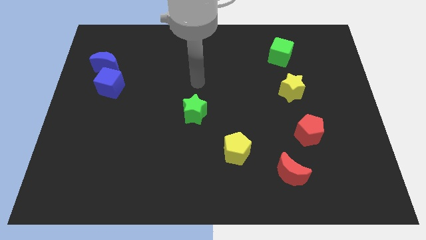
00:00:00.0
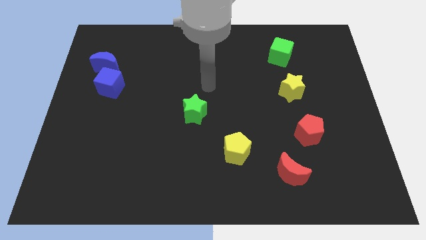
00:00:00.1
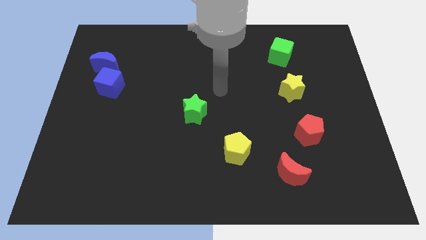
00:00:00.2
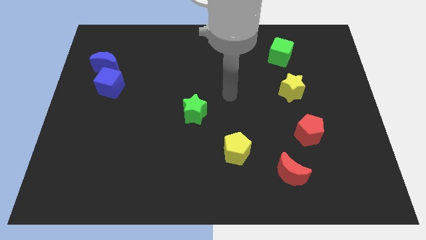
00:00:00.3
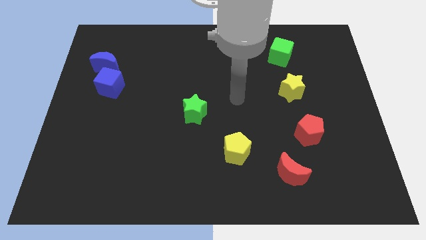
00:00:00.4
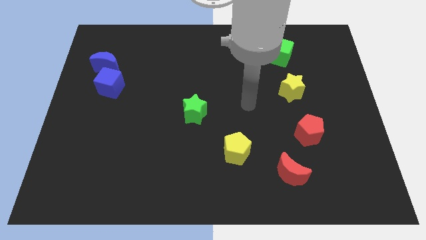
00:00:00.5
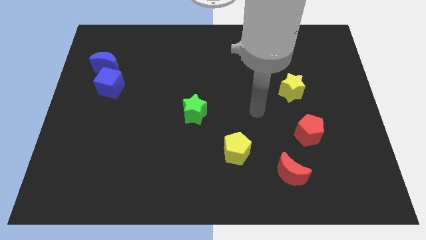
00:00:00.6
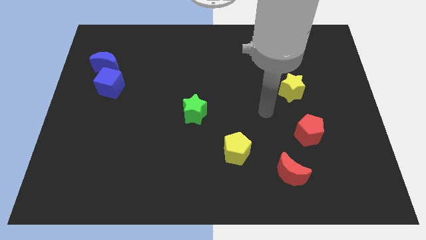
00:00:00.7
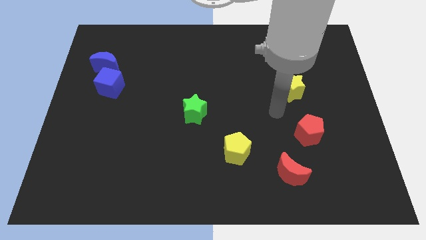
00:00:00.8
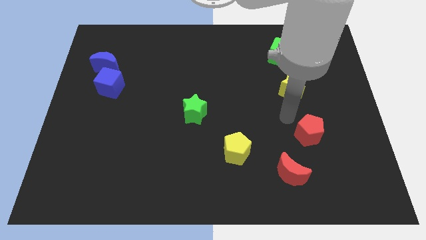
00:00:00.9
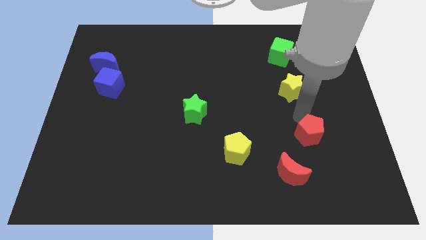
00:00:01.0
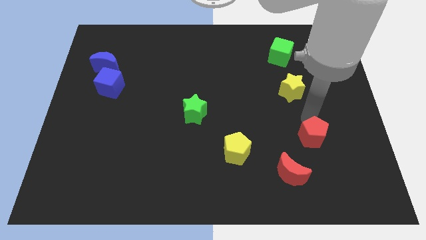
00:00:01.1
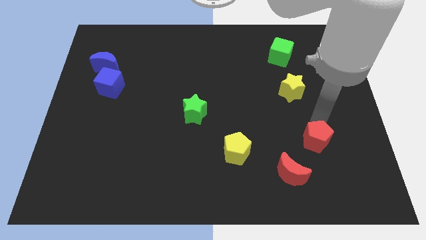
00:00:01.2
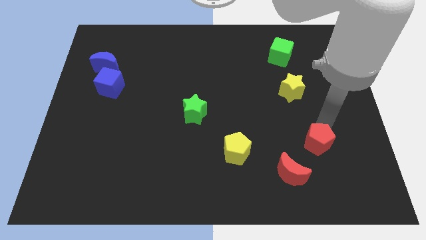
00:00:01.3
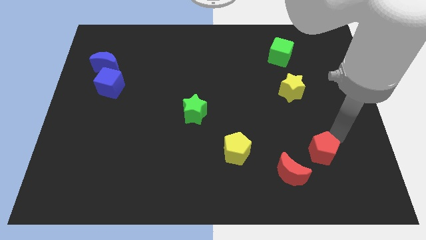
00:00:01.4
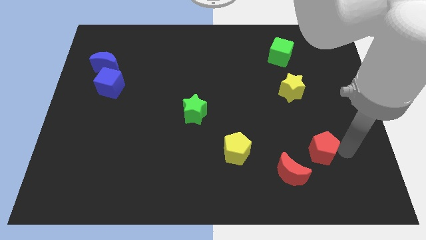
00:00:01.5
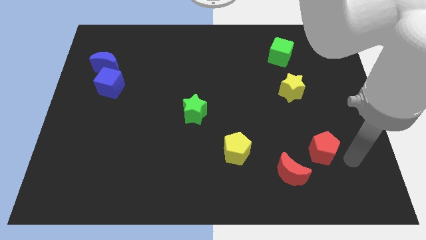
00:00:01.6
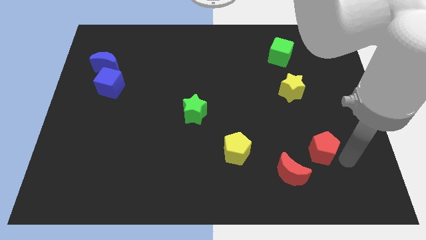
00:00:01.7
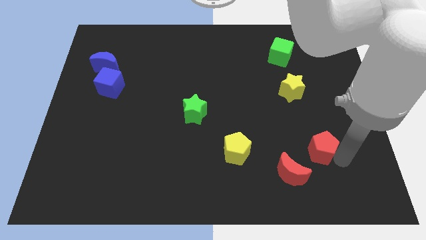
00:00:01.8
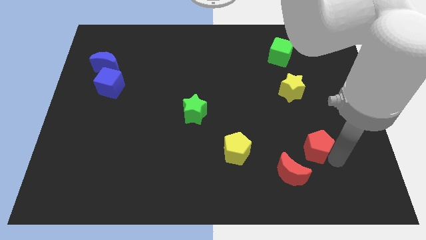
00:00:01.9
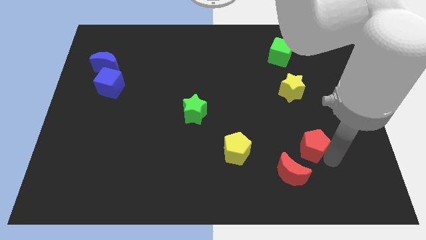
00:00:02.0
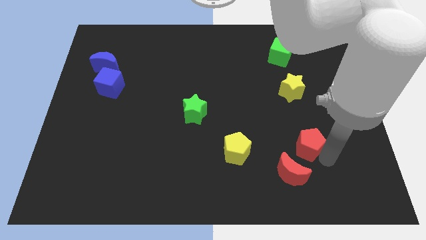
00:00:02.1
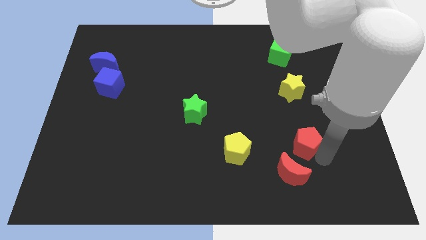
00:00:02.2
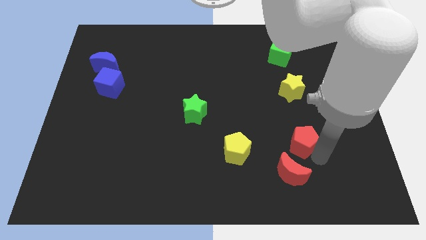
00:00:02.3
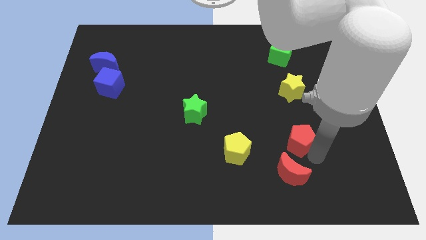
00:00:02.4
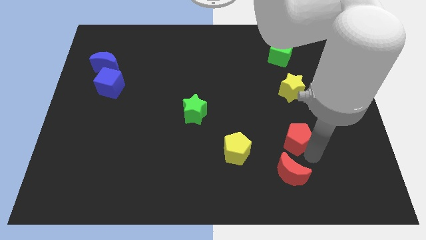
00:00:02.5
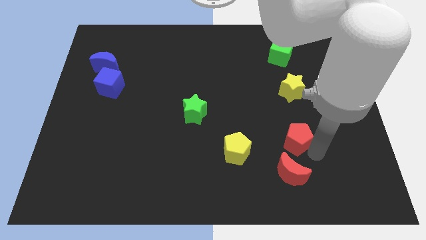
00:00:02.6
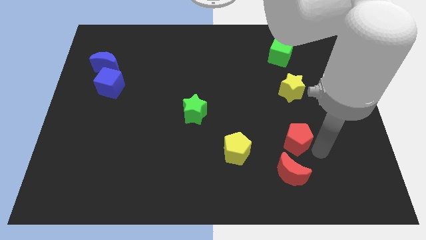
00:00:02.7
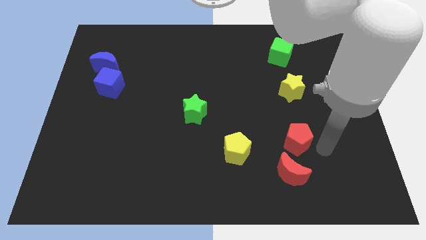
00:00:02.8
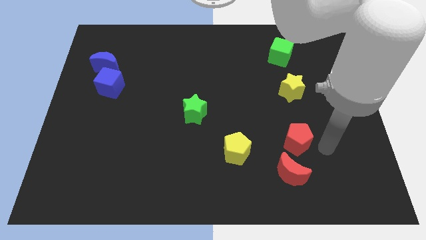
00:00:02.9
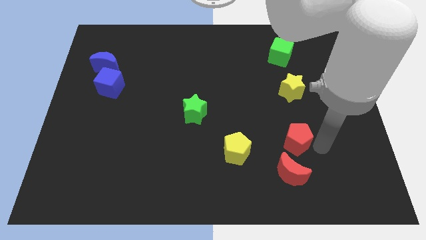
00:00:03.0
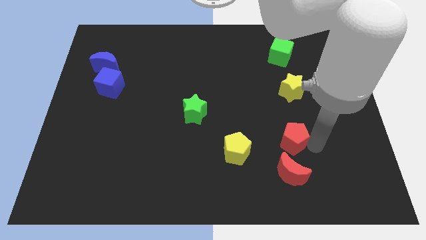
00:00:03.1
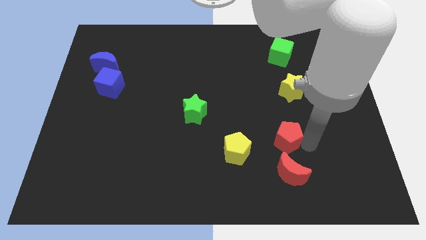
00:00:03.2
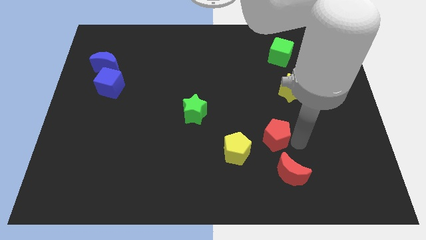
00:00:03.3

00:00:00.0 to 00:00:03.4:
slightly push the red pentagon left

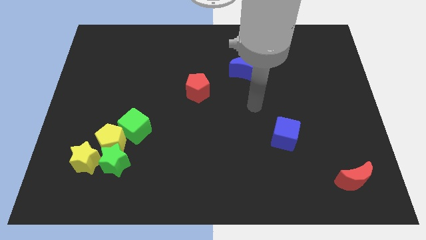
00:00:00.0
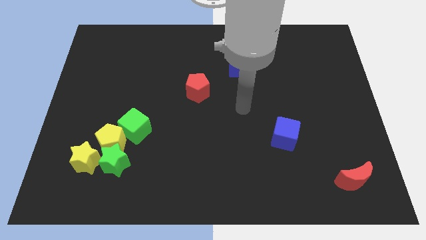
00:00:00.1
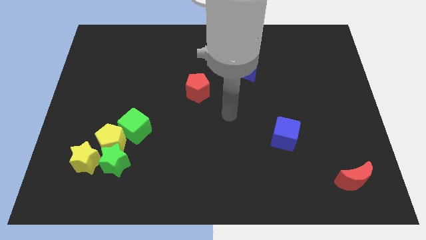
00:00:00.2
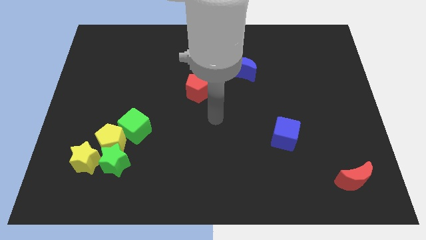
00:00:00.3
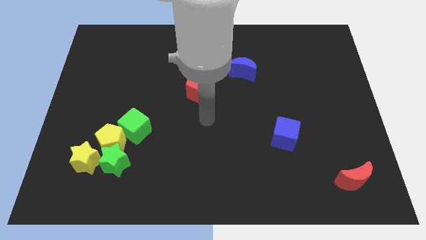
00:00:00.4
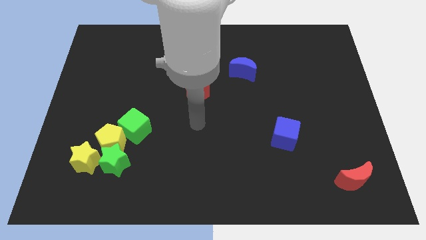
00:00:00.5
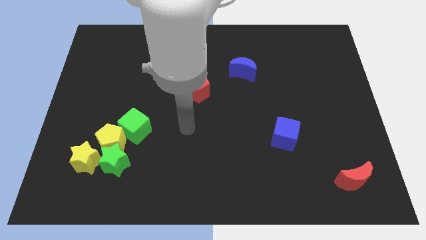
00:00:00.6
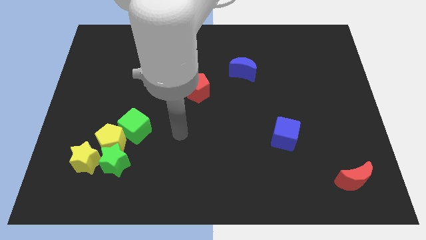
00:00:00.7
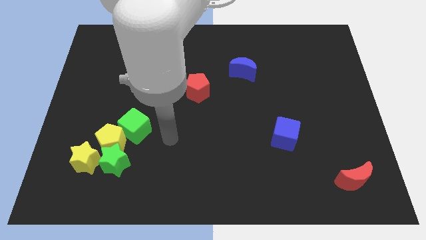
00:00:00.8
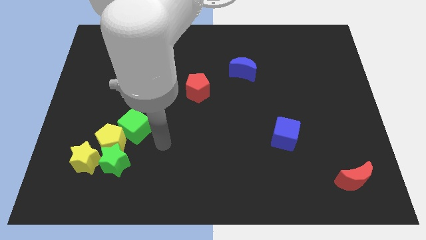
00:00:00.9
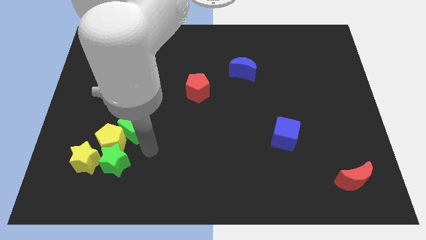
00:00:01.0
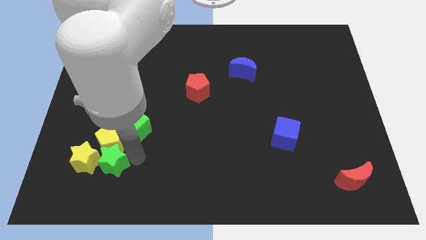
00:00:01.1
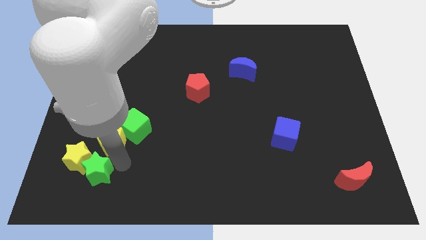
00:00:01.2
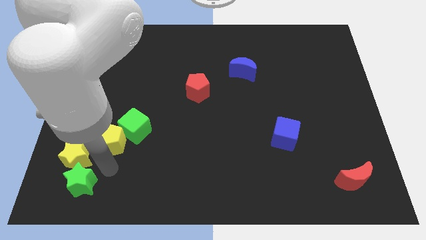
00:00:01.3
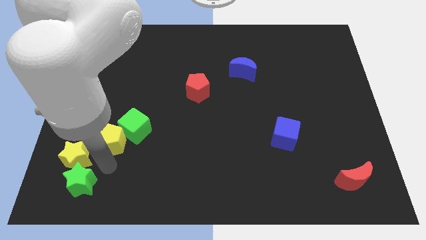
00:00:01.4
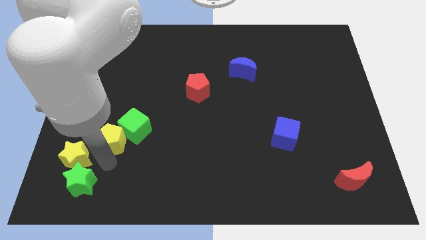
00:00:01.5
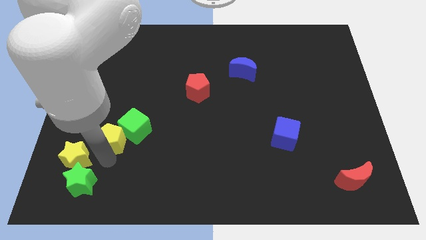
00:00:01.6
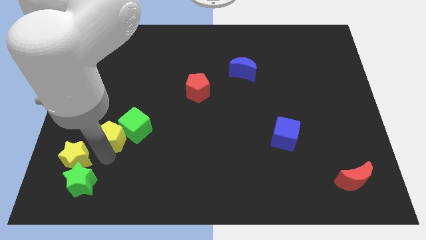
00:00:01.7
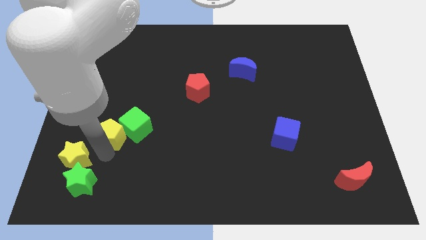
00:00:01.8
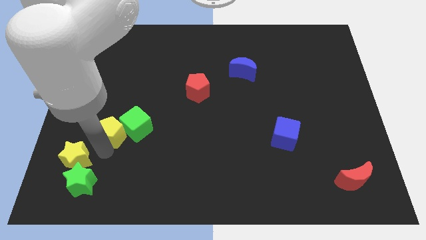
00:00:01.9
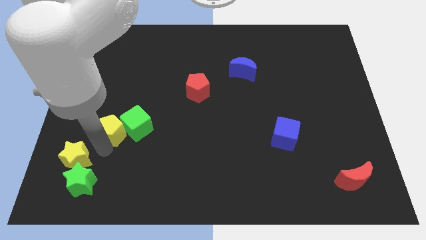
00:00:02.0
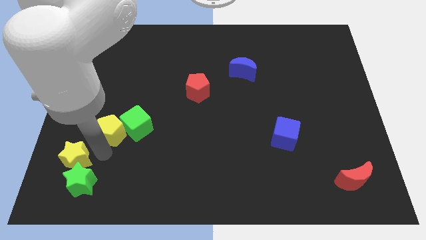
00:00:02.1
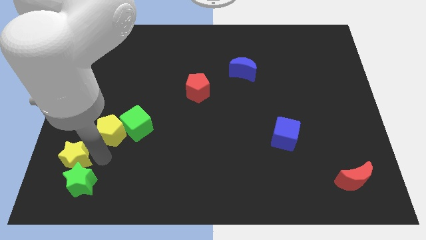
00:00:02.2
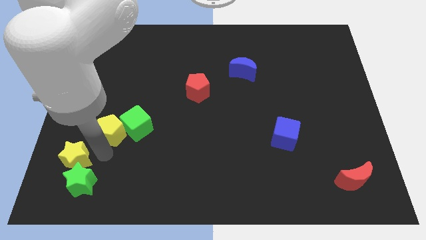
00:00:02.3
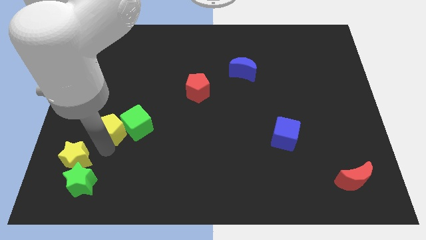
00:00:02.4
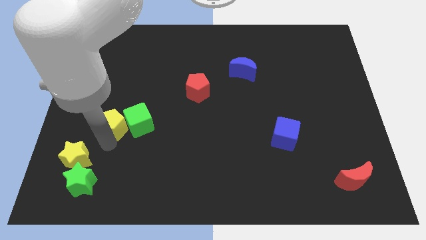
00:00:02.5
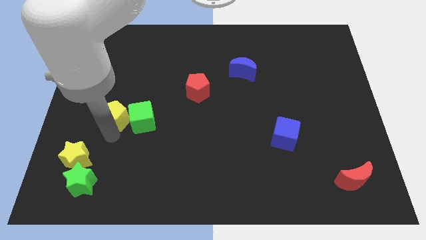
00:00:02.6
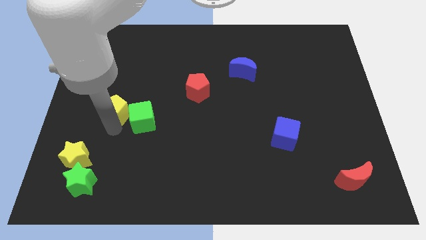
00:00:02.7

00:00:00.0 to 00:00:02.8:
slide the yellow pentagon somewhat up

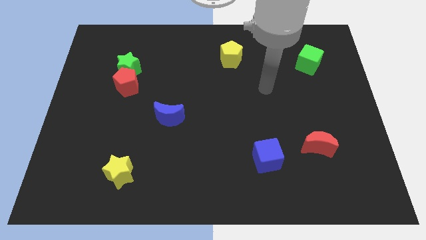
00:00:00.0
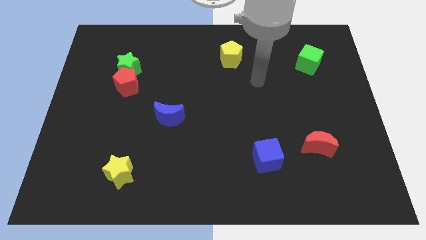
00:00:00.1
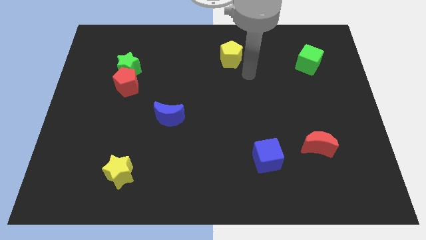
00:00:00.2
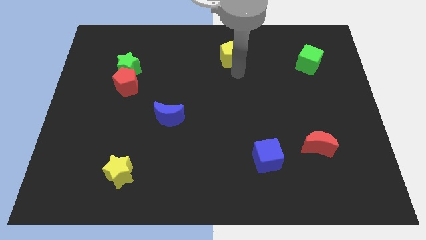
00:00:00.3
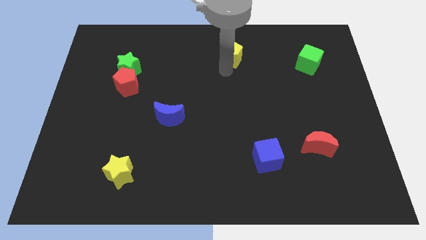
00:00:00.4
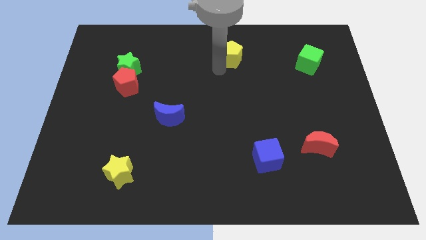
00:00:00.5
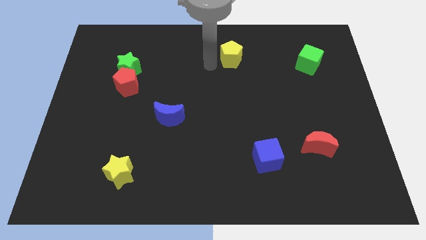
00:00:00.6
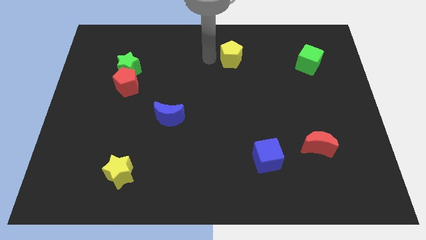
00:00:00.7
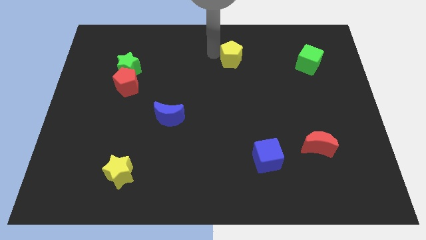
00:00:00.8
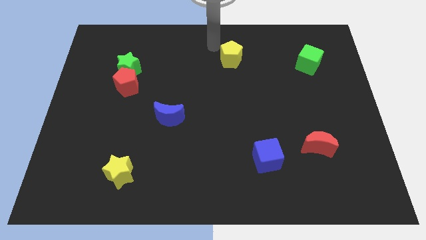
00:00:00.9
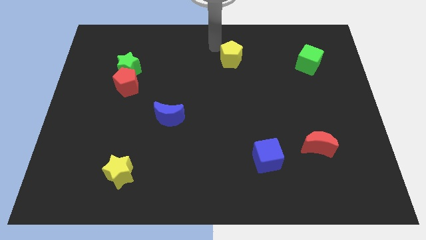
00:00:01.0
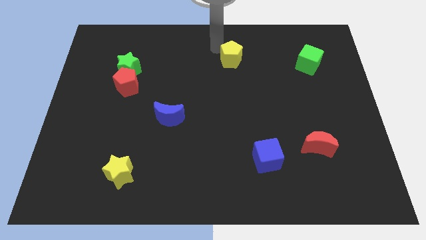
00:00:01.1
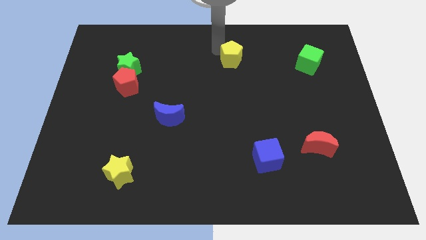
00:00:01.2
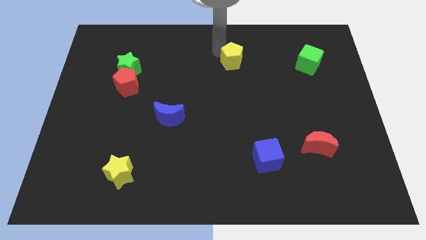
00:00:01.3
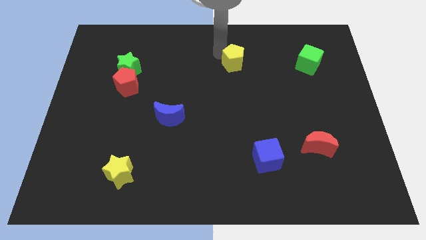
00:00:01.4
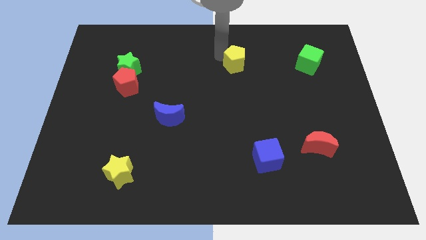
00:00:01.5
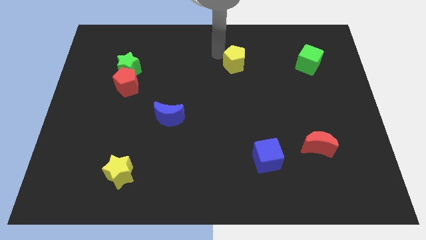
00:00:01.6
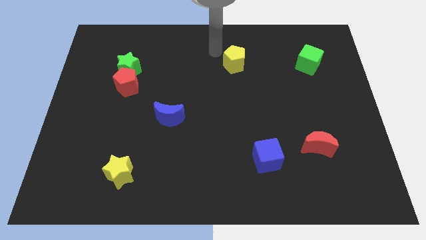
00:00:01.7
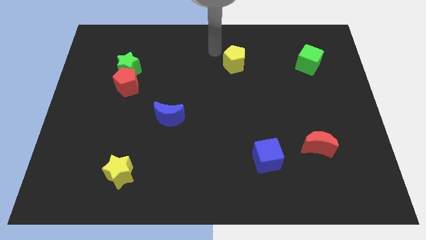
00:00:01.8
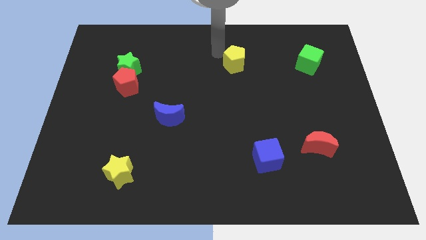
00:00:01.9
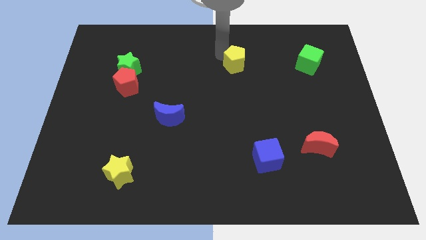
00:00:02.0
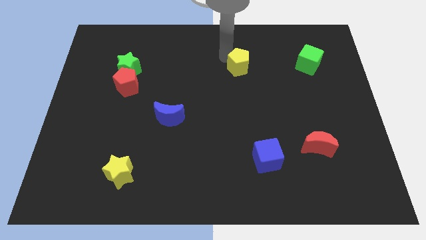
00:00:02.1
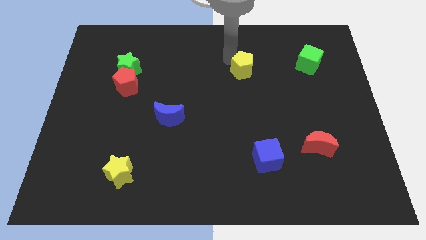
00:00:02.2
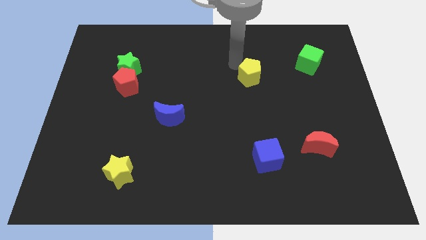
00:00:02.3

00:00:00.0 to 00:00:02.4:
move the yellow pentagon downwards and to the right somewhat

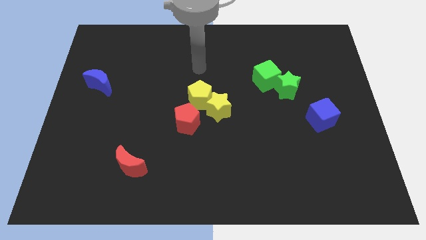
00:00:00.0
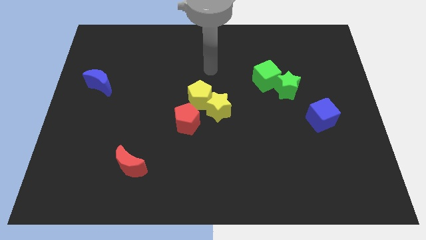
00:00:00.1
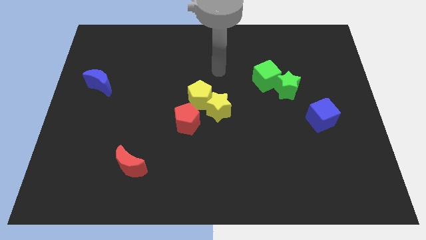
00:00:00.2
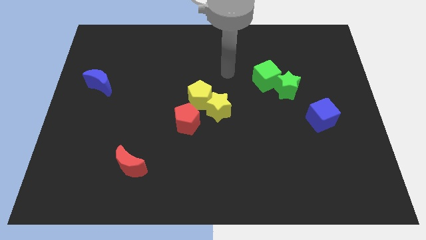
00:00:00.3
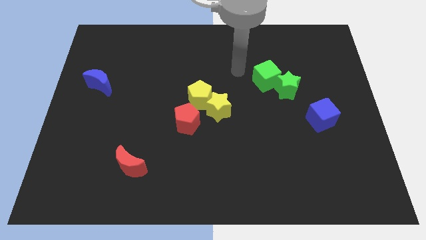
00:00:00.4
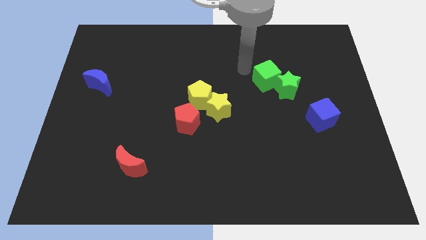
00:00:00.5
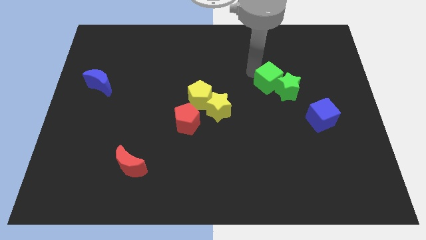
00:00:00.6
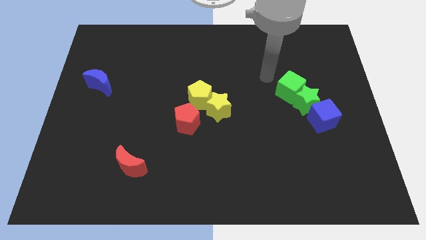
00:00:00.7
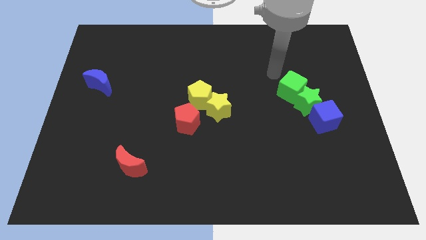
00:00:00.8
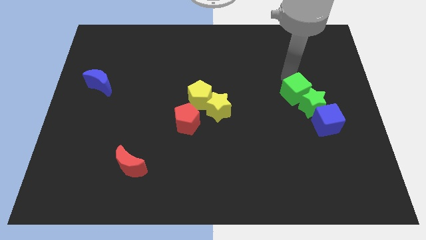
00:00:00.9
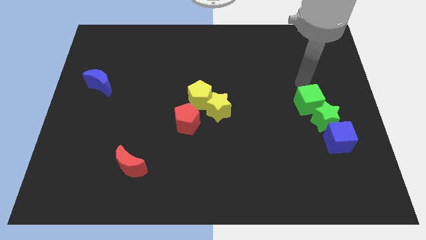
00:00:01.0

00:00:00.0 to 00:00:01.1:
push the green star slightly downwards
